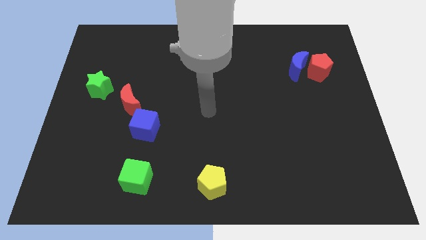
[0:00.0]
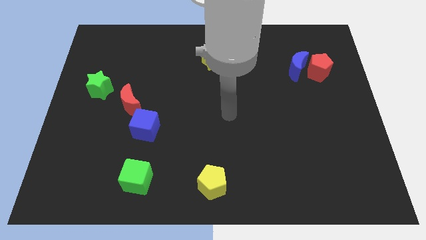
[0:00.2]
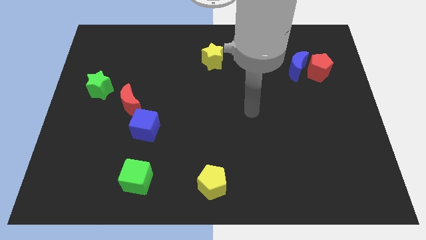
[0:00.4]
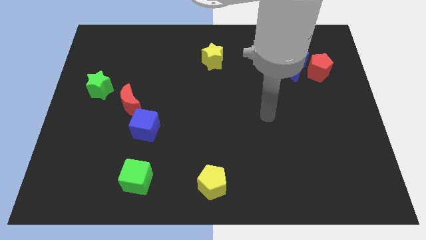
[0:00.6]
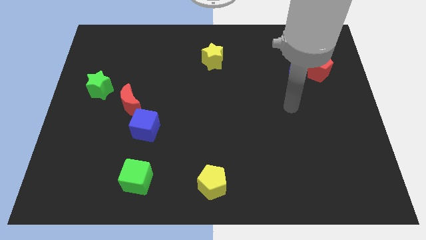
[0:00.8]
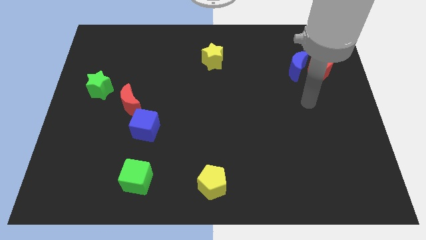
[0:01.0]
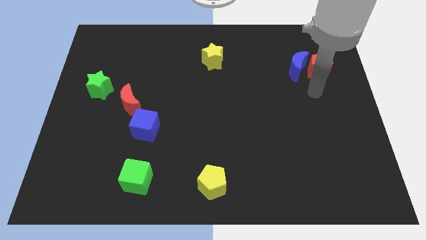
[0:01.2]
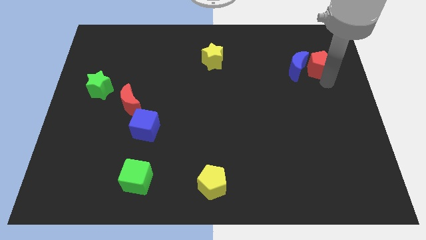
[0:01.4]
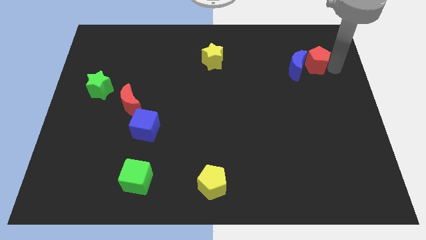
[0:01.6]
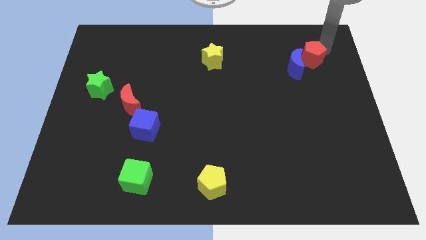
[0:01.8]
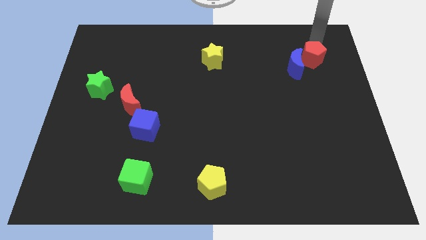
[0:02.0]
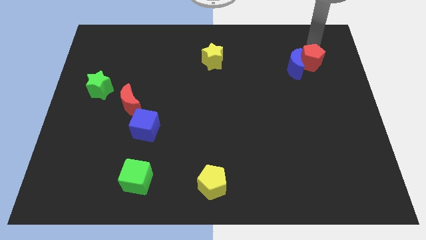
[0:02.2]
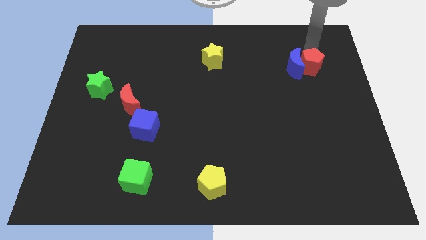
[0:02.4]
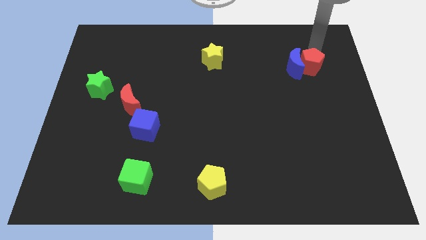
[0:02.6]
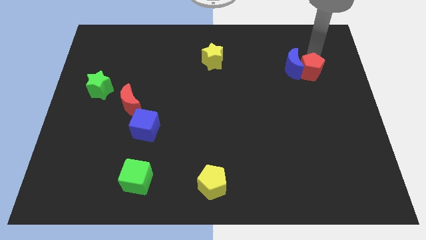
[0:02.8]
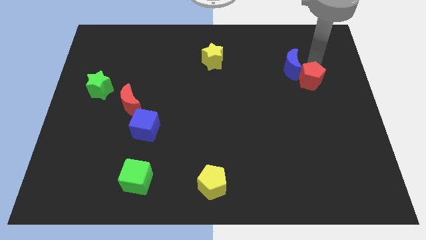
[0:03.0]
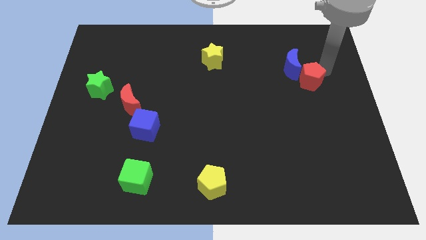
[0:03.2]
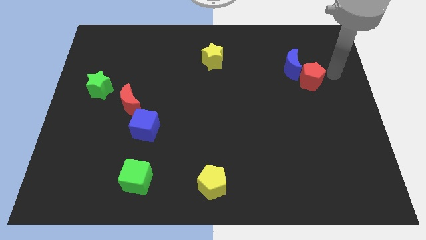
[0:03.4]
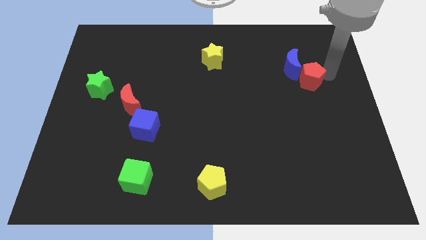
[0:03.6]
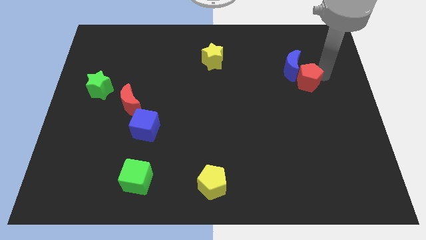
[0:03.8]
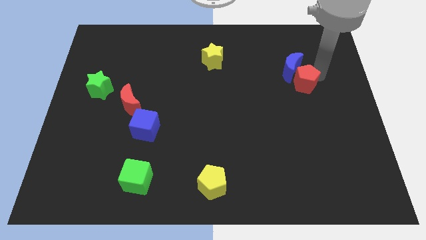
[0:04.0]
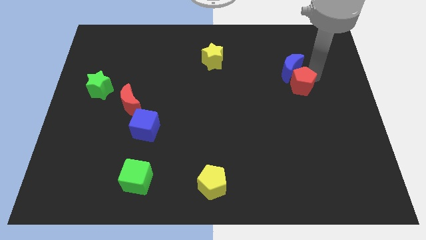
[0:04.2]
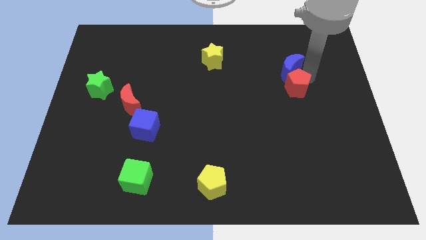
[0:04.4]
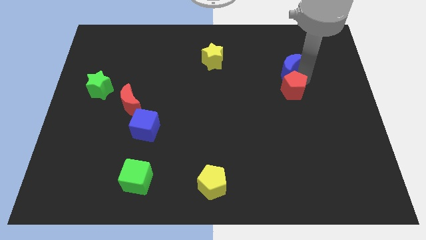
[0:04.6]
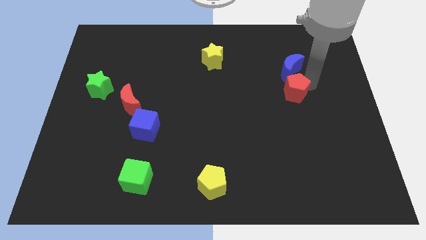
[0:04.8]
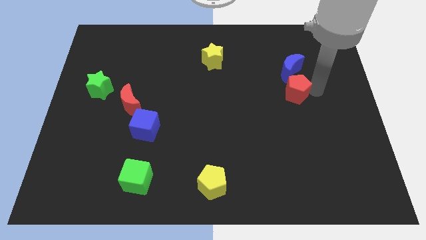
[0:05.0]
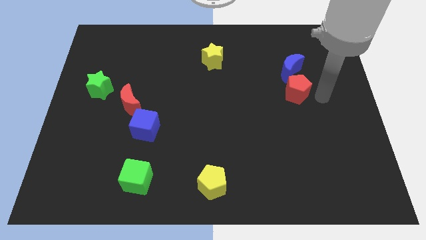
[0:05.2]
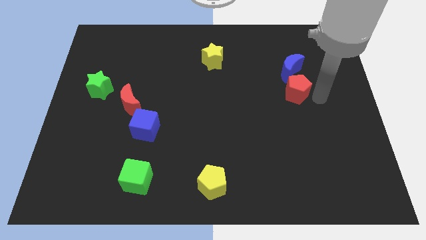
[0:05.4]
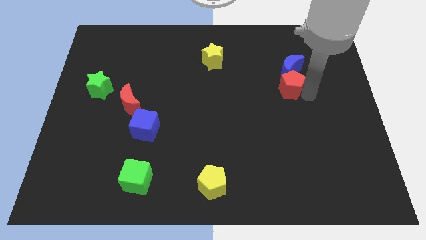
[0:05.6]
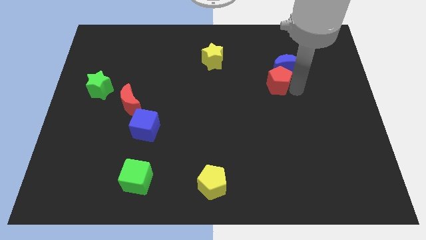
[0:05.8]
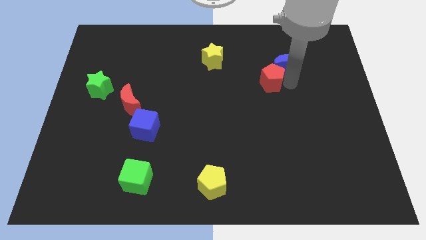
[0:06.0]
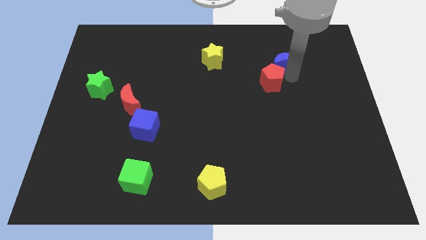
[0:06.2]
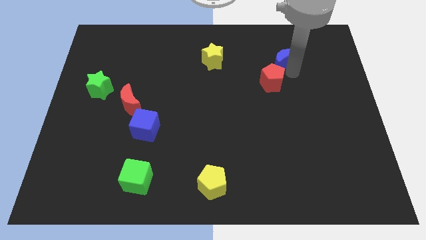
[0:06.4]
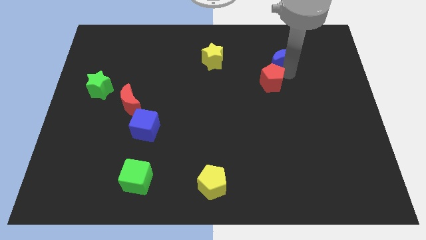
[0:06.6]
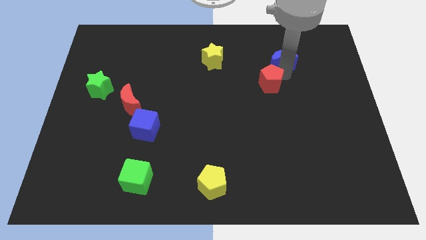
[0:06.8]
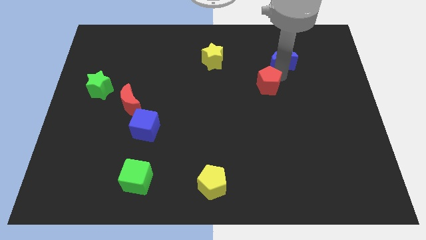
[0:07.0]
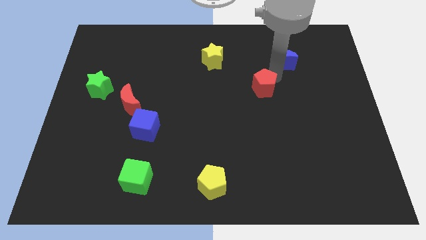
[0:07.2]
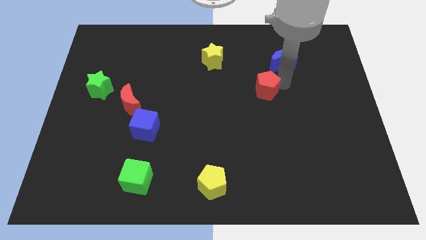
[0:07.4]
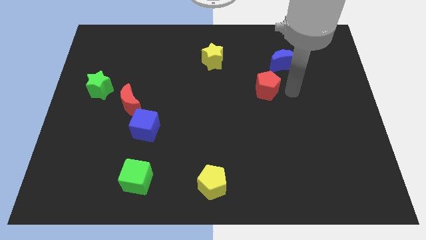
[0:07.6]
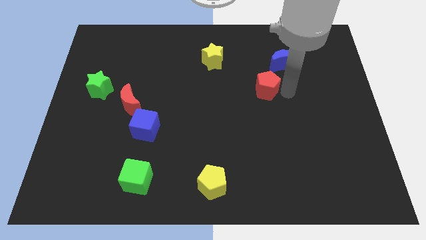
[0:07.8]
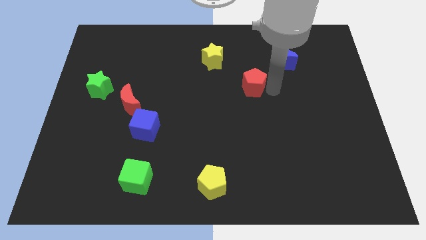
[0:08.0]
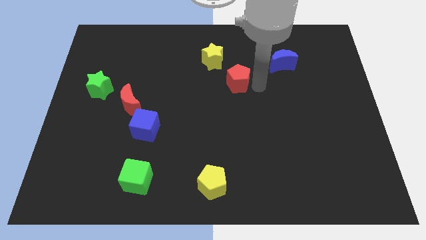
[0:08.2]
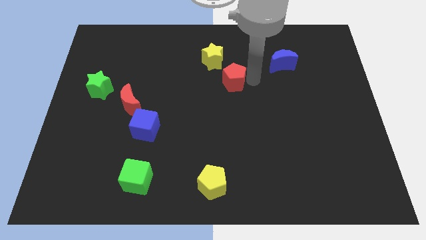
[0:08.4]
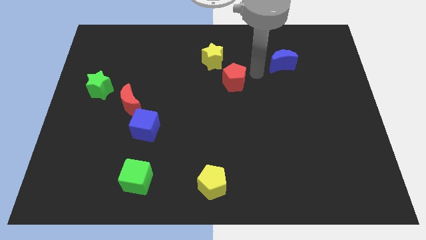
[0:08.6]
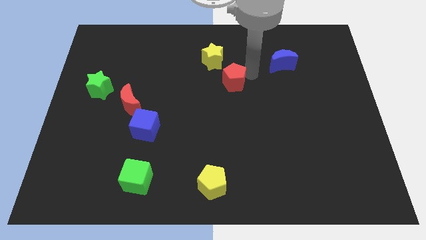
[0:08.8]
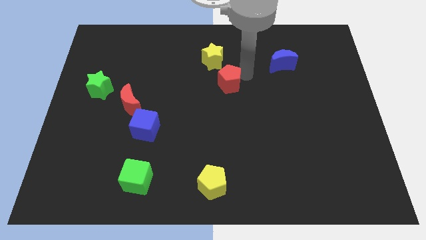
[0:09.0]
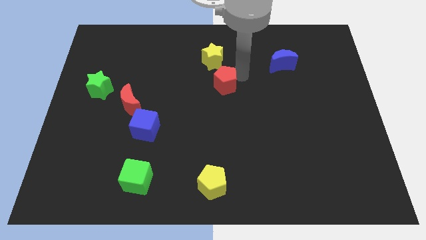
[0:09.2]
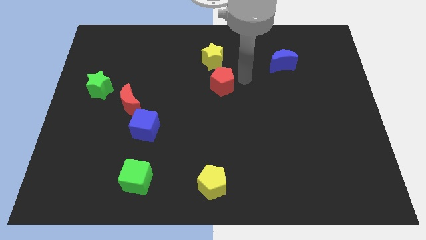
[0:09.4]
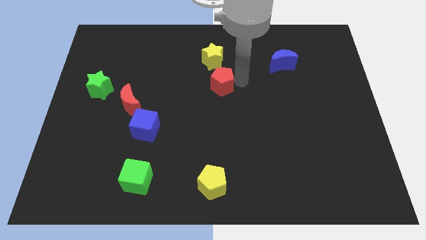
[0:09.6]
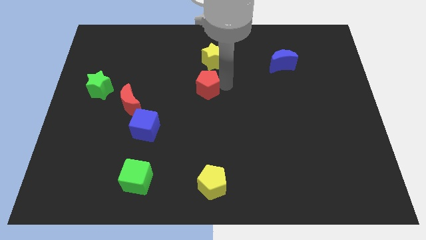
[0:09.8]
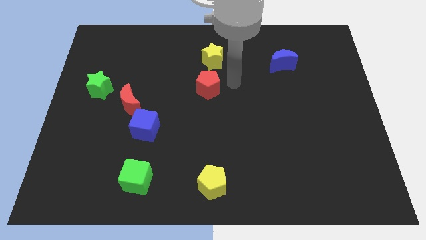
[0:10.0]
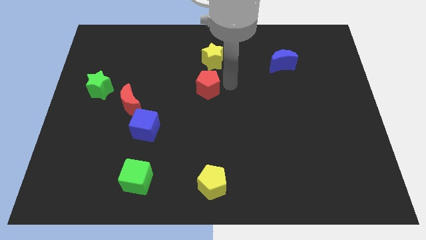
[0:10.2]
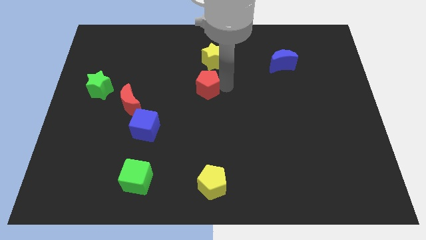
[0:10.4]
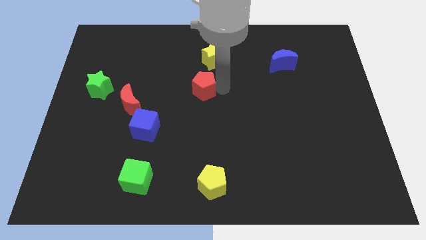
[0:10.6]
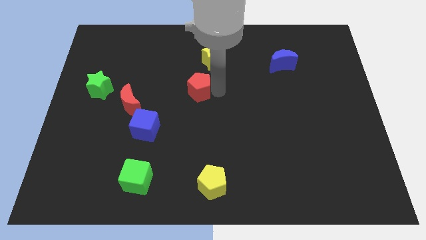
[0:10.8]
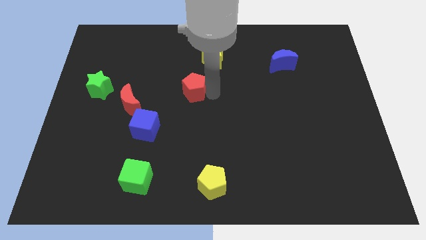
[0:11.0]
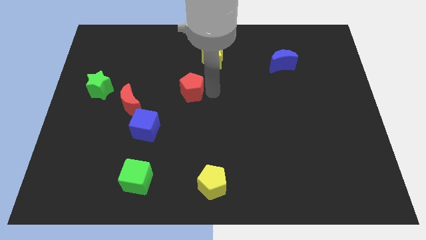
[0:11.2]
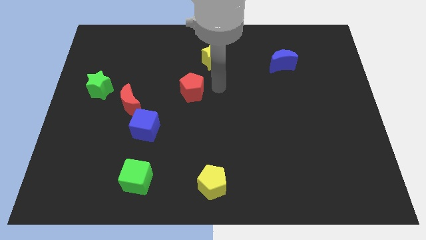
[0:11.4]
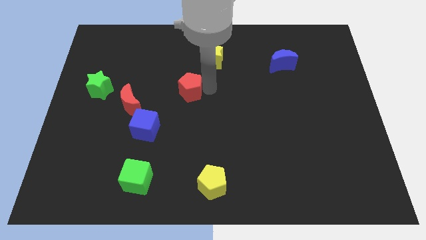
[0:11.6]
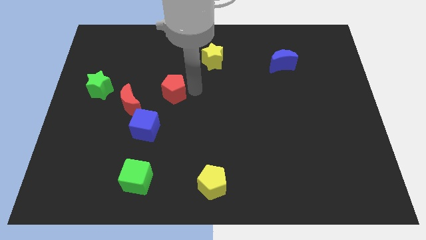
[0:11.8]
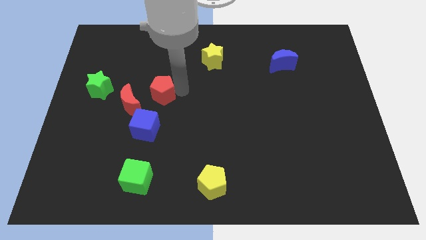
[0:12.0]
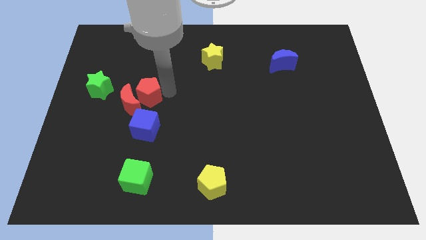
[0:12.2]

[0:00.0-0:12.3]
move the red pentagon close to the red moon

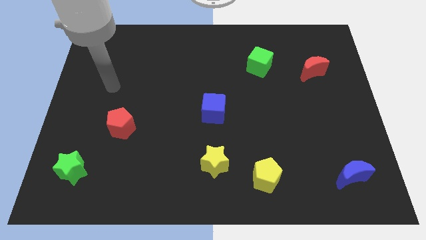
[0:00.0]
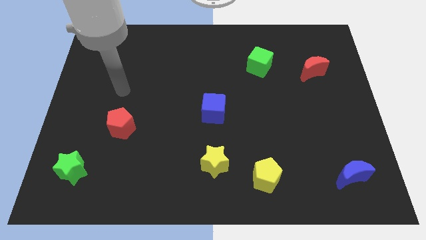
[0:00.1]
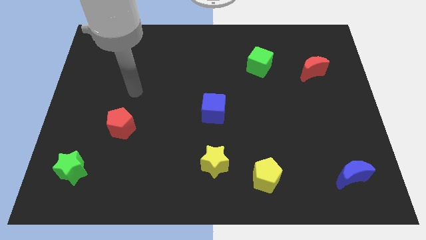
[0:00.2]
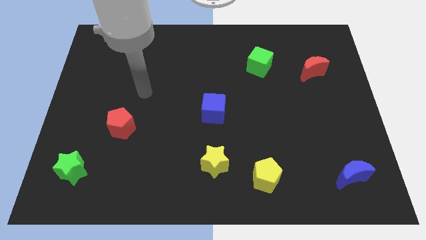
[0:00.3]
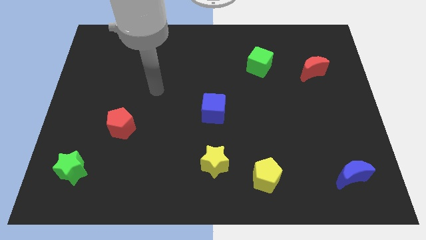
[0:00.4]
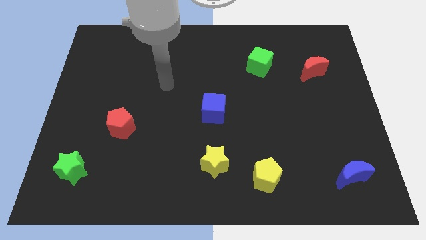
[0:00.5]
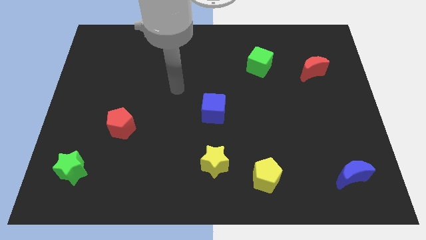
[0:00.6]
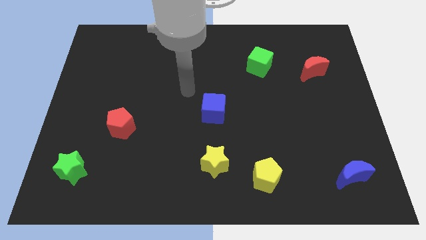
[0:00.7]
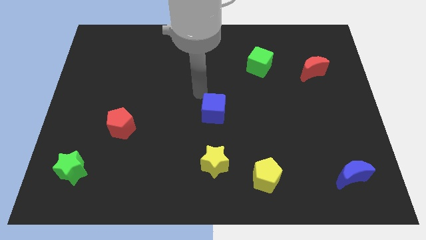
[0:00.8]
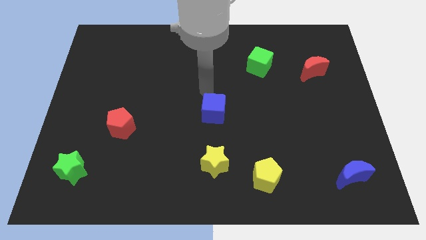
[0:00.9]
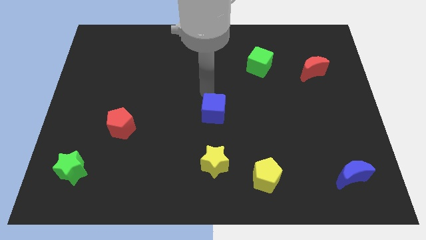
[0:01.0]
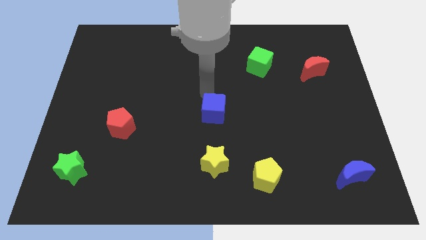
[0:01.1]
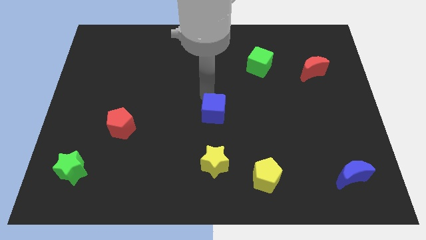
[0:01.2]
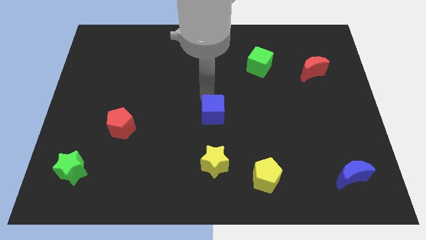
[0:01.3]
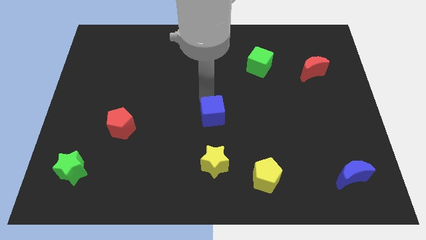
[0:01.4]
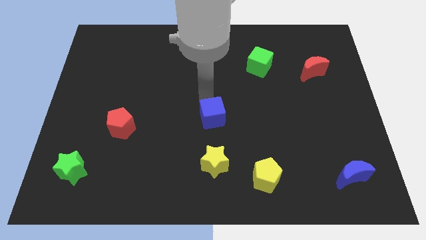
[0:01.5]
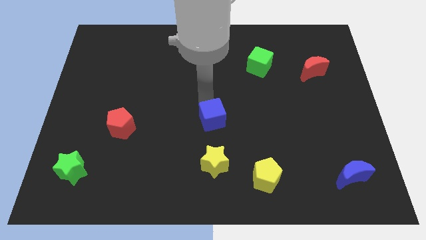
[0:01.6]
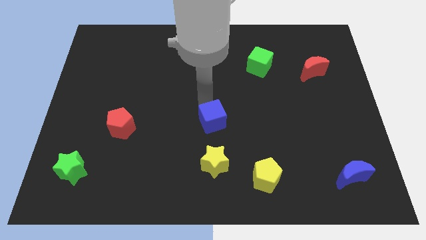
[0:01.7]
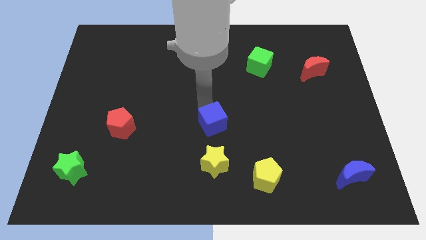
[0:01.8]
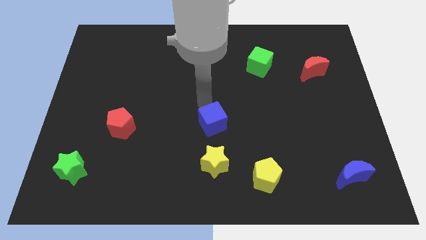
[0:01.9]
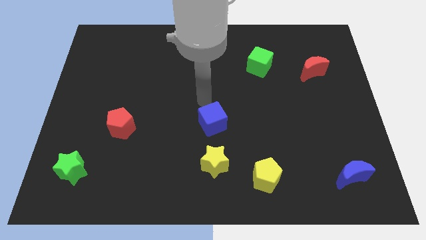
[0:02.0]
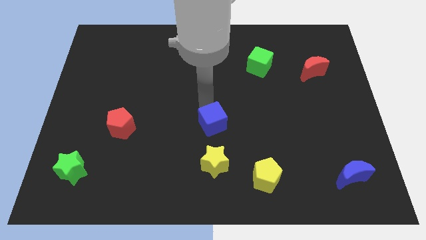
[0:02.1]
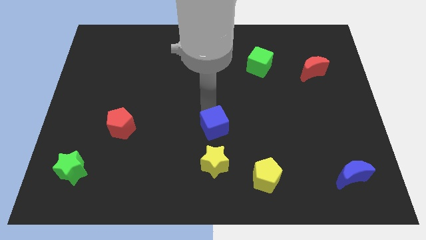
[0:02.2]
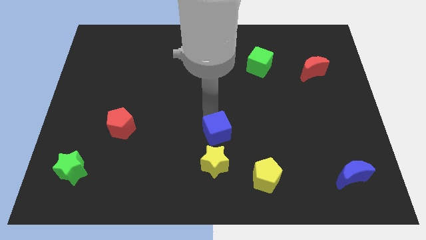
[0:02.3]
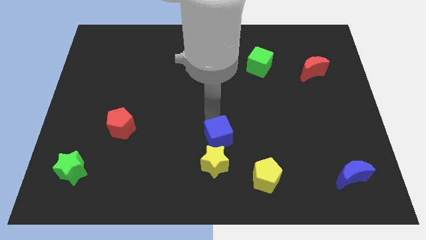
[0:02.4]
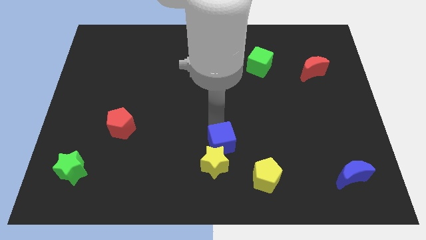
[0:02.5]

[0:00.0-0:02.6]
push the blue cube close to the yellow star
